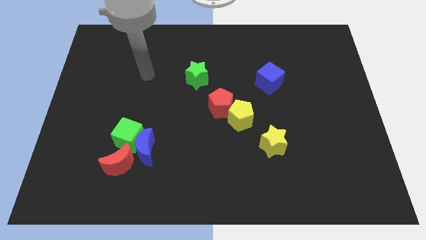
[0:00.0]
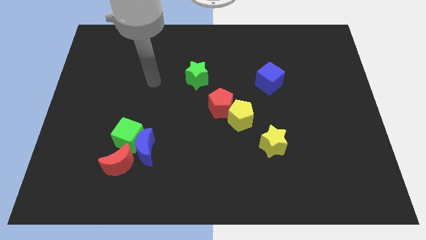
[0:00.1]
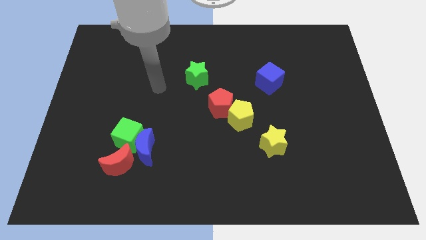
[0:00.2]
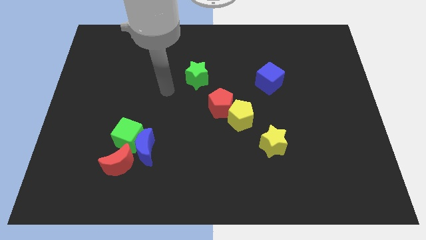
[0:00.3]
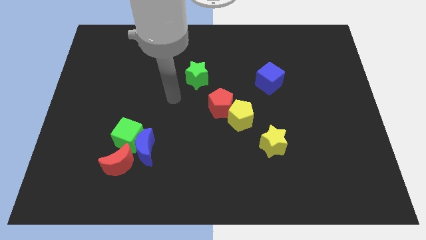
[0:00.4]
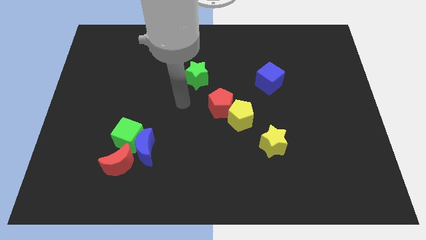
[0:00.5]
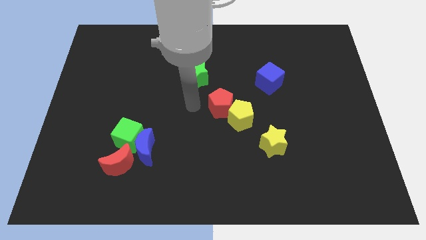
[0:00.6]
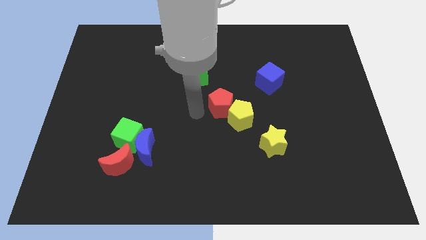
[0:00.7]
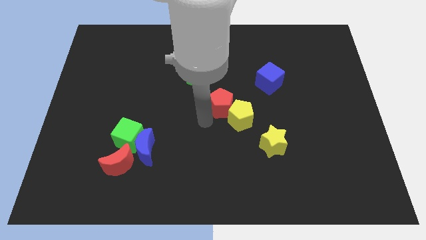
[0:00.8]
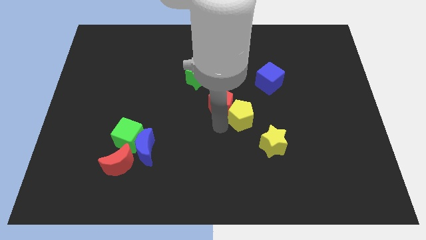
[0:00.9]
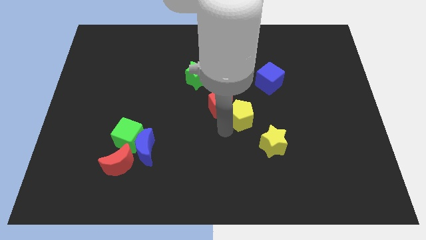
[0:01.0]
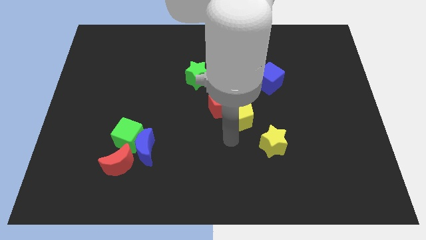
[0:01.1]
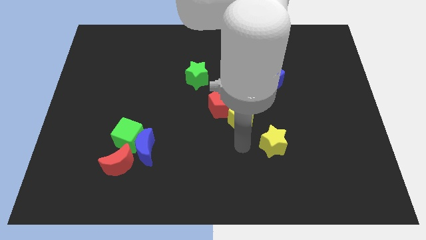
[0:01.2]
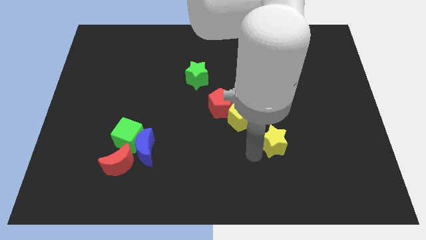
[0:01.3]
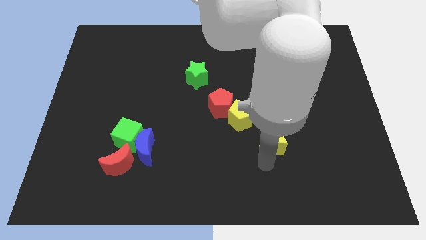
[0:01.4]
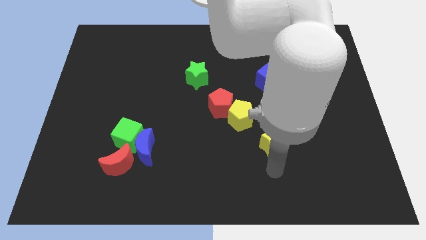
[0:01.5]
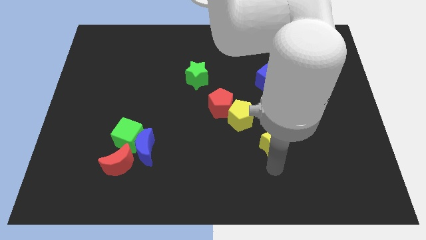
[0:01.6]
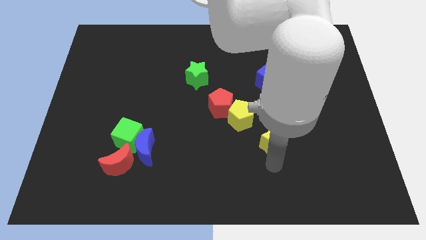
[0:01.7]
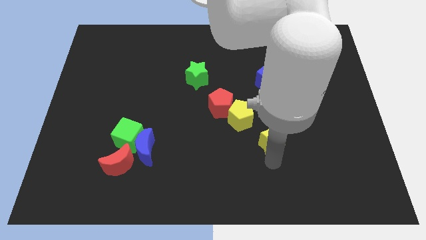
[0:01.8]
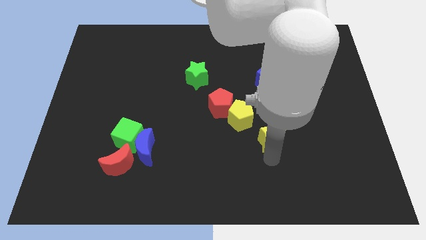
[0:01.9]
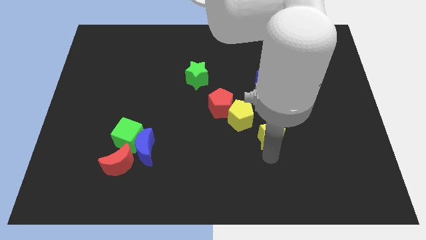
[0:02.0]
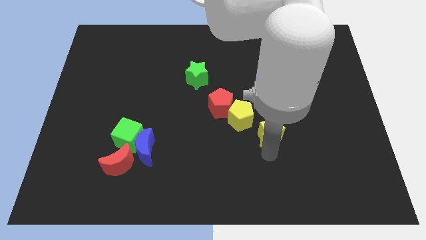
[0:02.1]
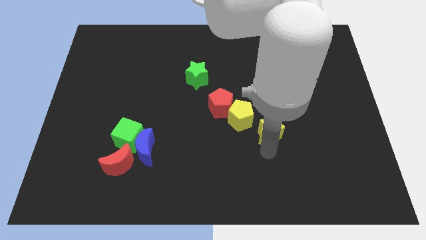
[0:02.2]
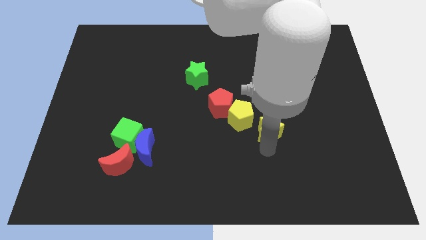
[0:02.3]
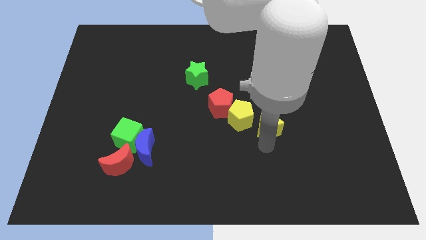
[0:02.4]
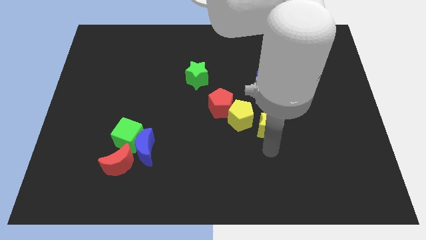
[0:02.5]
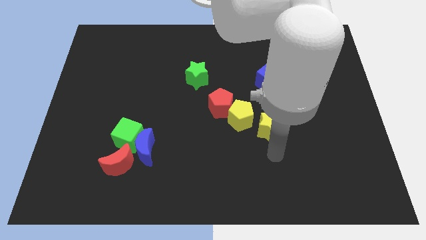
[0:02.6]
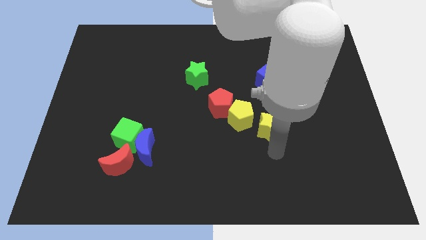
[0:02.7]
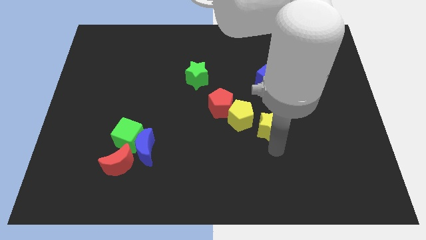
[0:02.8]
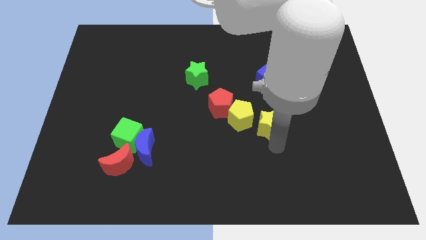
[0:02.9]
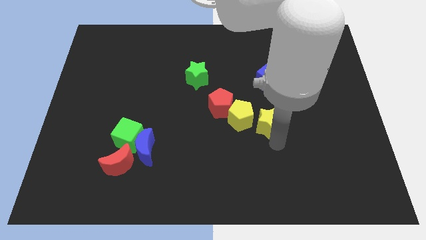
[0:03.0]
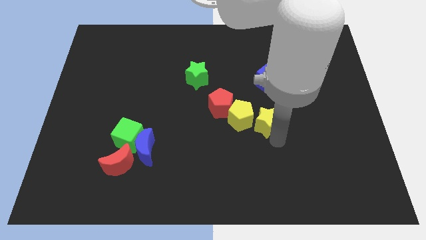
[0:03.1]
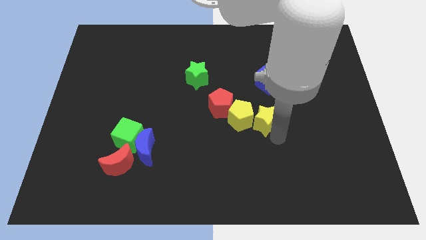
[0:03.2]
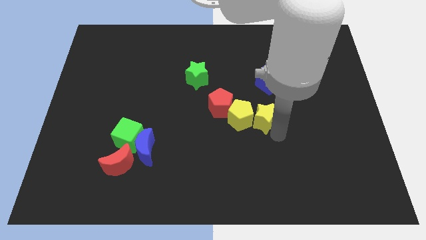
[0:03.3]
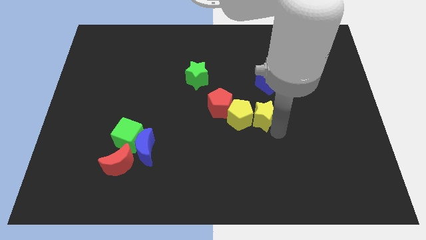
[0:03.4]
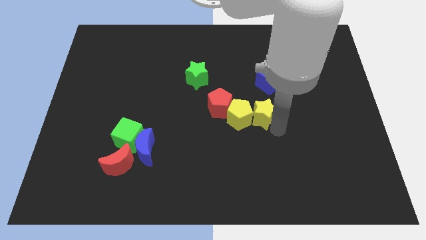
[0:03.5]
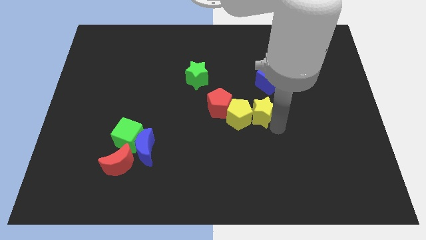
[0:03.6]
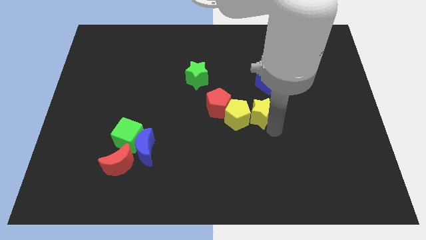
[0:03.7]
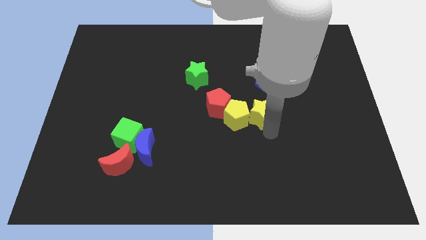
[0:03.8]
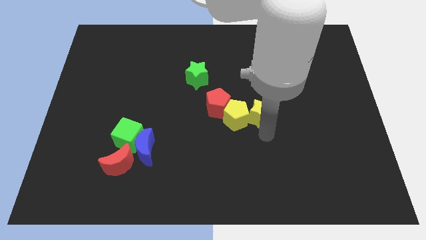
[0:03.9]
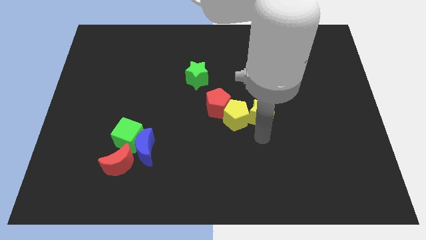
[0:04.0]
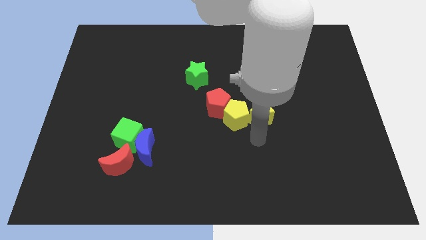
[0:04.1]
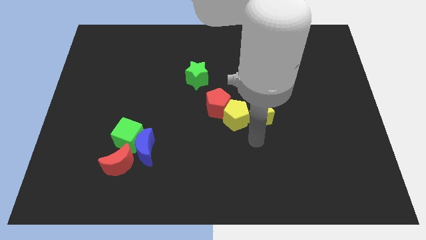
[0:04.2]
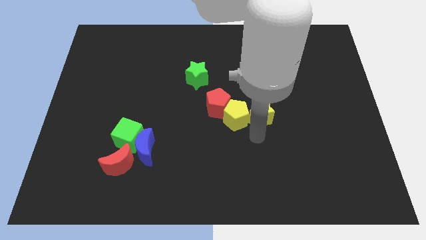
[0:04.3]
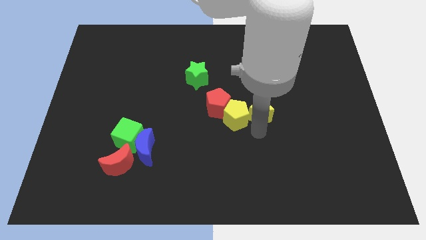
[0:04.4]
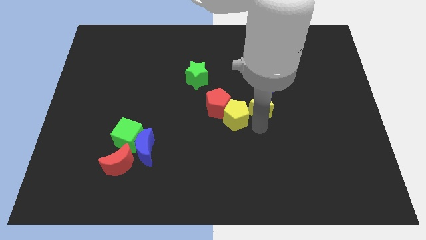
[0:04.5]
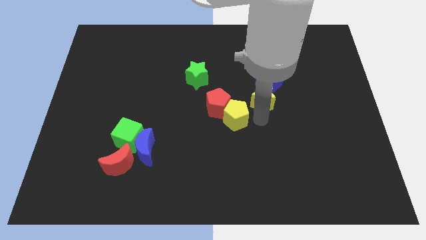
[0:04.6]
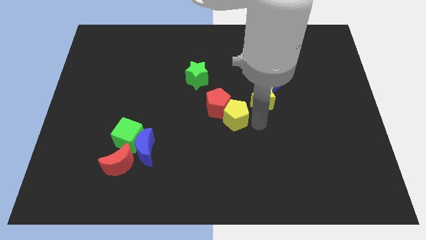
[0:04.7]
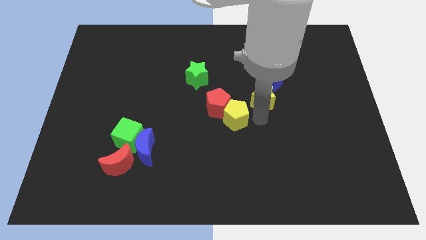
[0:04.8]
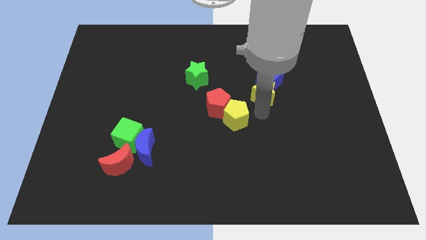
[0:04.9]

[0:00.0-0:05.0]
put the yellow star towards the blue cube

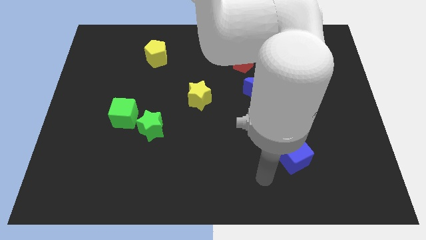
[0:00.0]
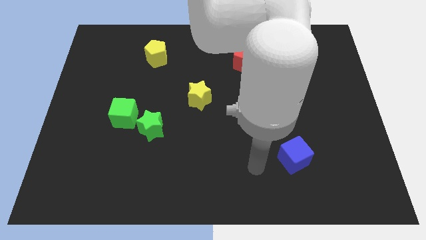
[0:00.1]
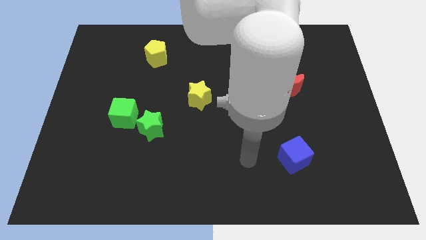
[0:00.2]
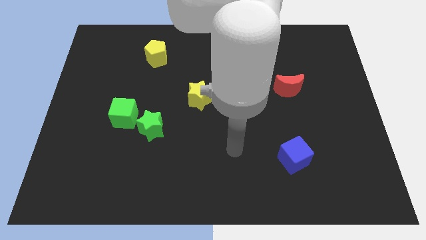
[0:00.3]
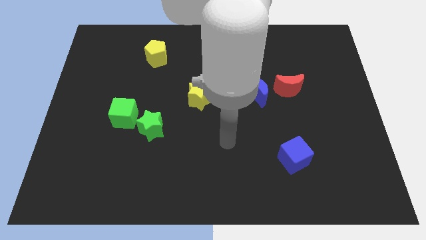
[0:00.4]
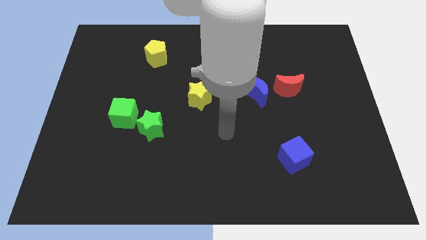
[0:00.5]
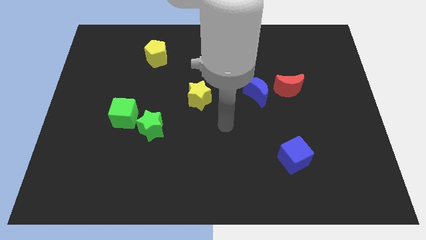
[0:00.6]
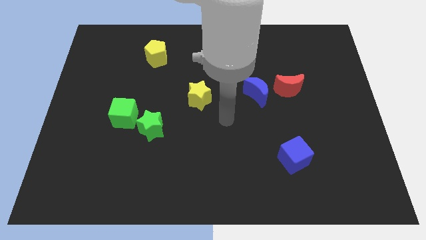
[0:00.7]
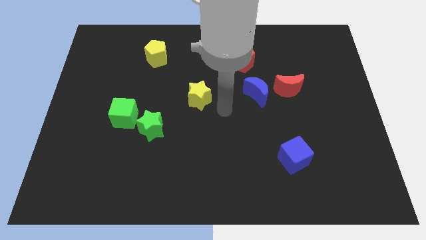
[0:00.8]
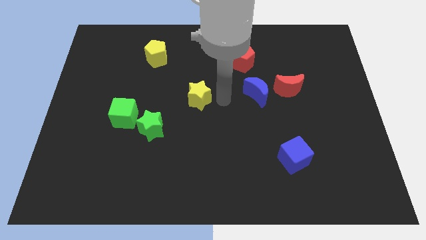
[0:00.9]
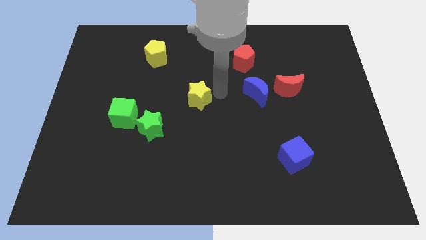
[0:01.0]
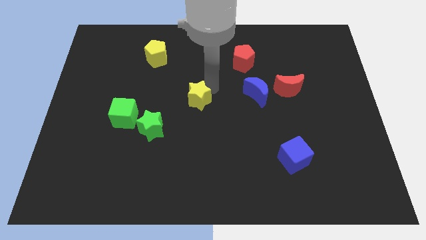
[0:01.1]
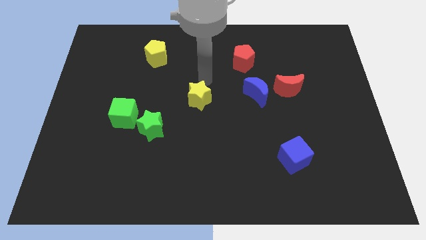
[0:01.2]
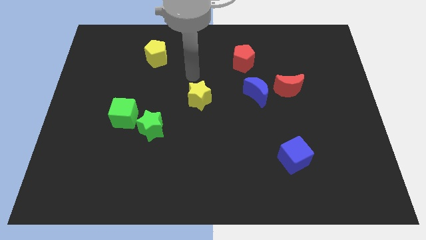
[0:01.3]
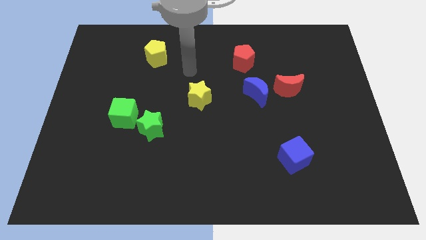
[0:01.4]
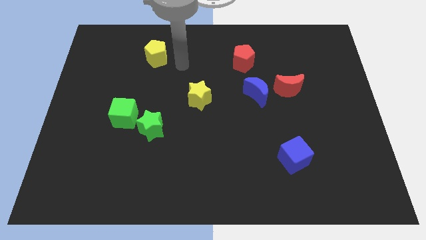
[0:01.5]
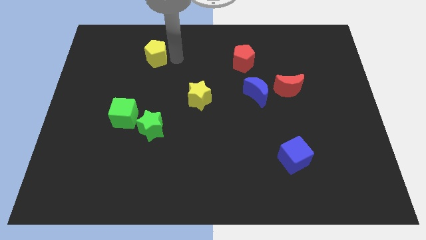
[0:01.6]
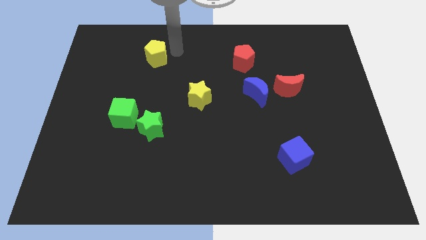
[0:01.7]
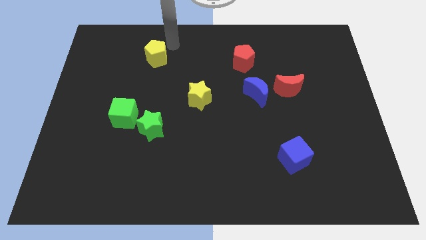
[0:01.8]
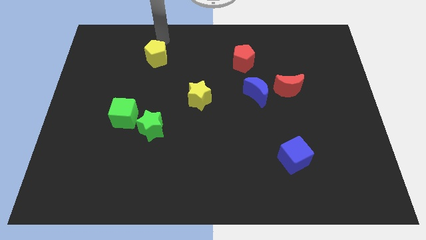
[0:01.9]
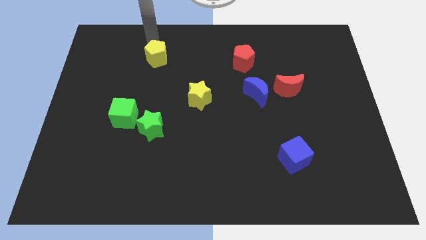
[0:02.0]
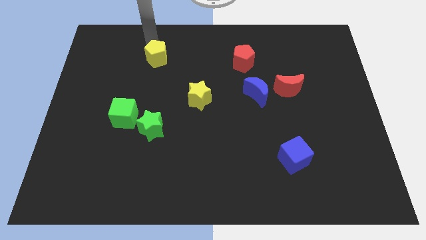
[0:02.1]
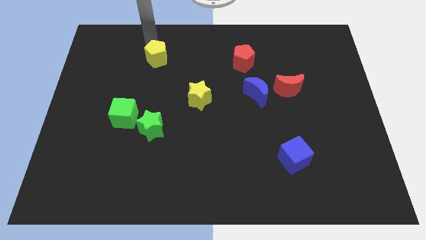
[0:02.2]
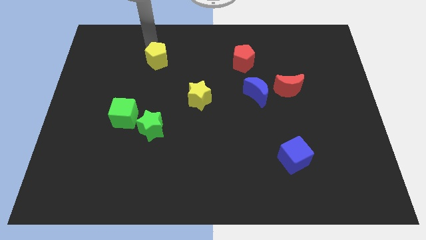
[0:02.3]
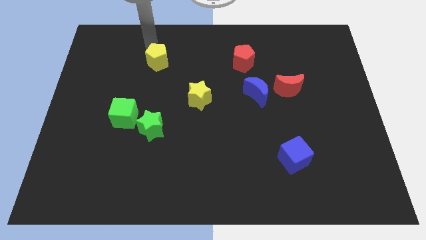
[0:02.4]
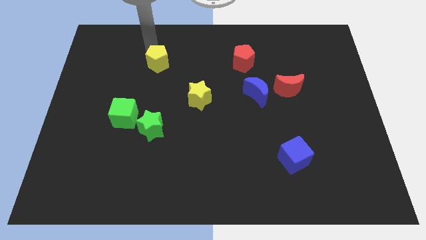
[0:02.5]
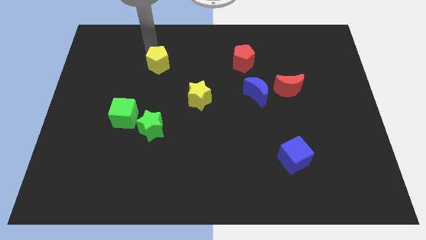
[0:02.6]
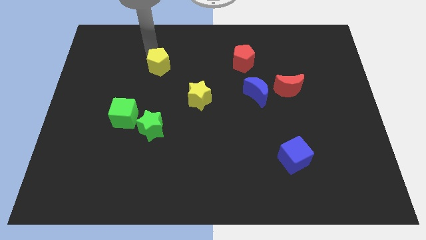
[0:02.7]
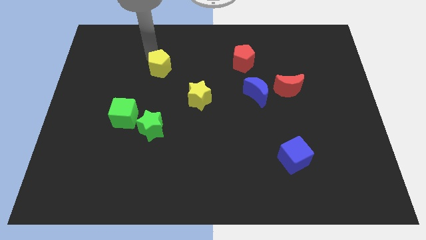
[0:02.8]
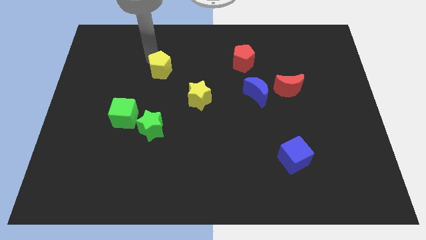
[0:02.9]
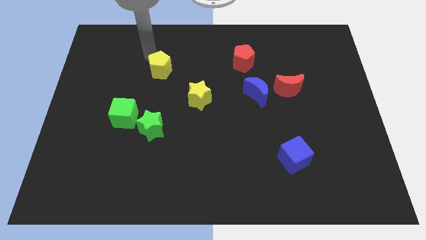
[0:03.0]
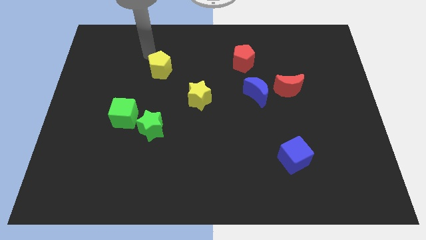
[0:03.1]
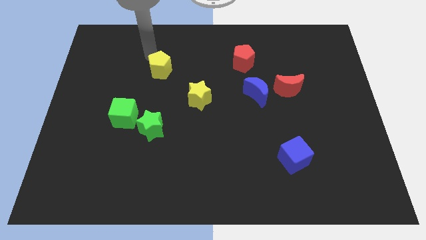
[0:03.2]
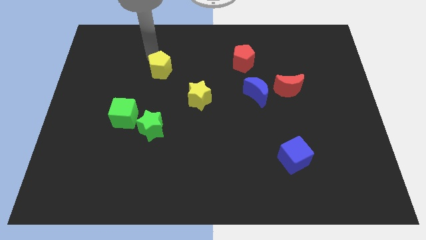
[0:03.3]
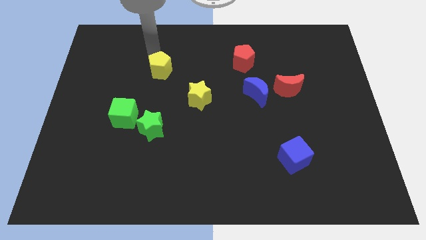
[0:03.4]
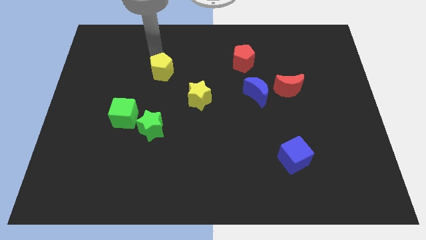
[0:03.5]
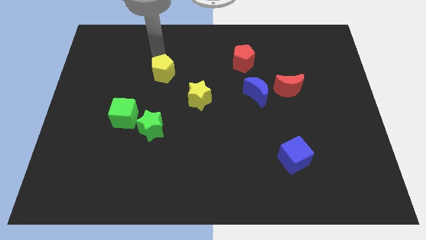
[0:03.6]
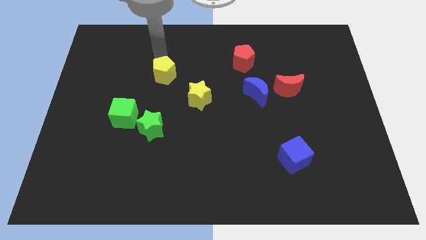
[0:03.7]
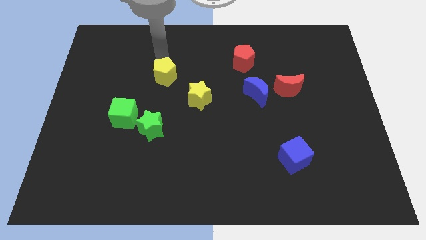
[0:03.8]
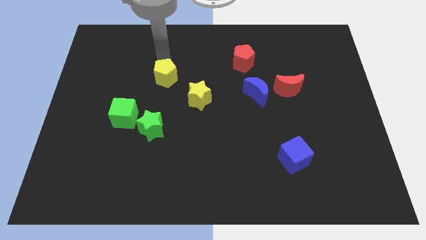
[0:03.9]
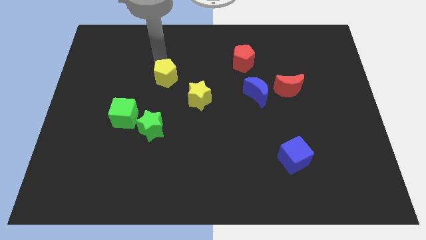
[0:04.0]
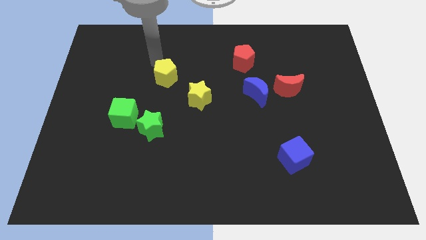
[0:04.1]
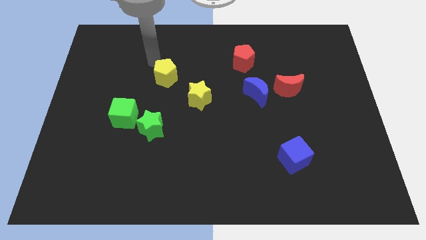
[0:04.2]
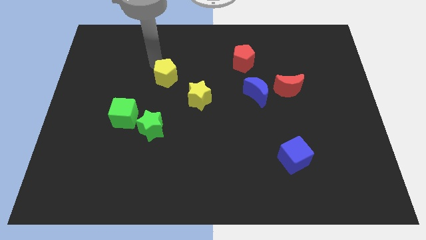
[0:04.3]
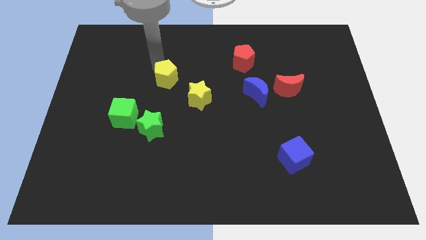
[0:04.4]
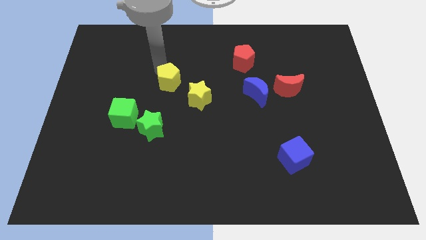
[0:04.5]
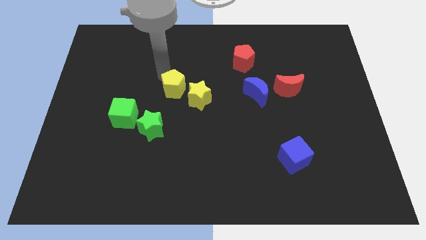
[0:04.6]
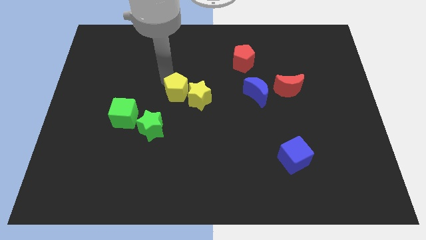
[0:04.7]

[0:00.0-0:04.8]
put the yellow pentagon close to the yellow star
